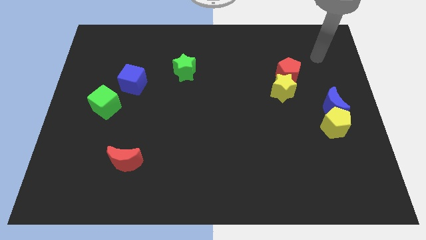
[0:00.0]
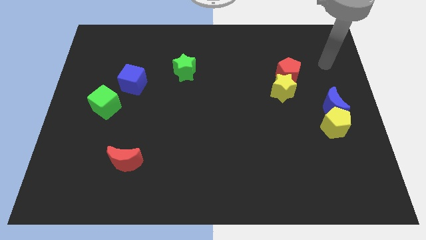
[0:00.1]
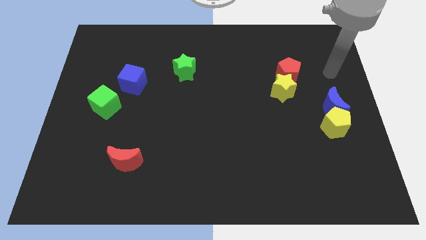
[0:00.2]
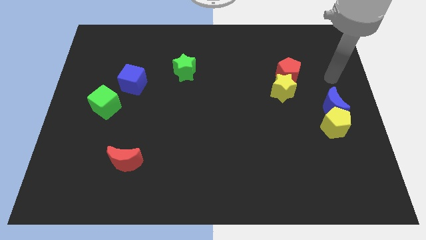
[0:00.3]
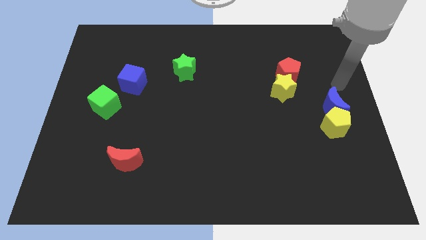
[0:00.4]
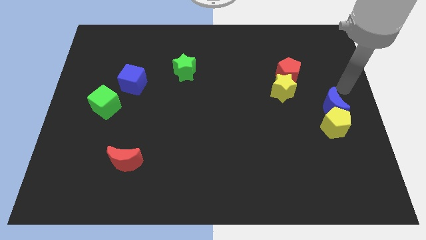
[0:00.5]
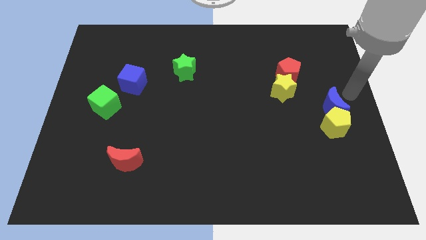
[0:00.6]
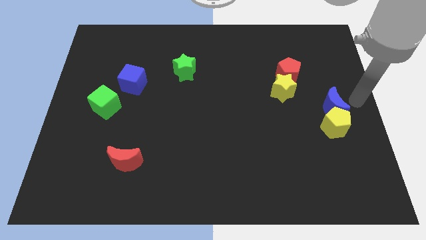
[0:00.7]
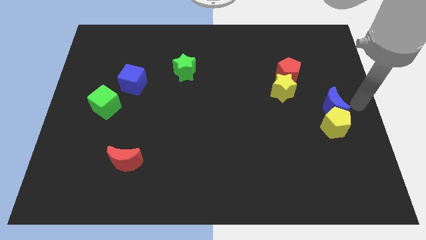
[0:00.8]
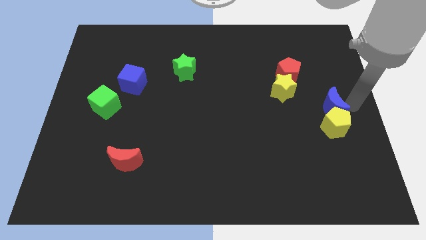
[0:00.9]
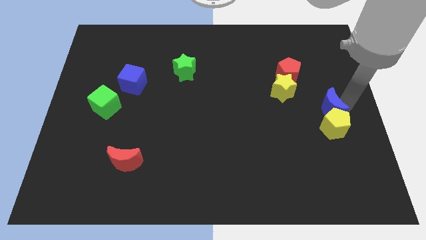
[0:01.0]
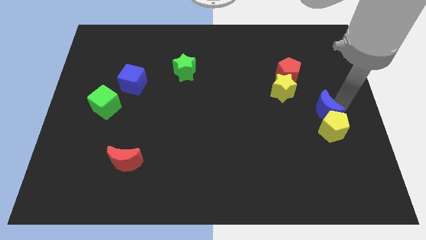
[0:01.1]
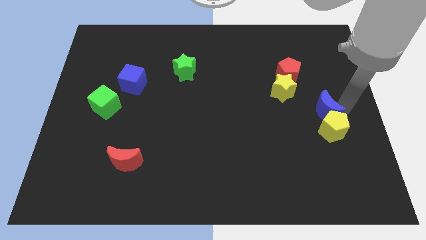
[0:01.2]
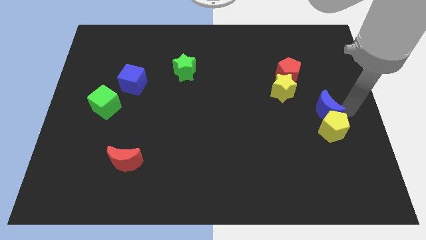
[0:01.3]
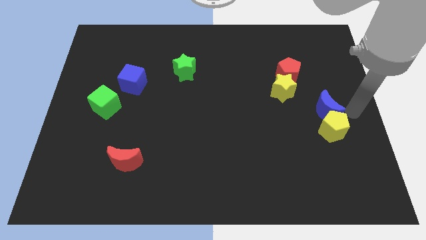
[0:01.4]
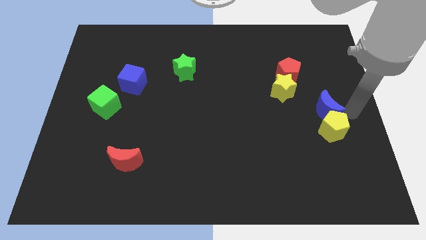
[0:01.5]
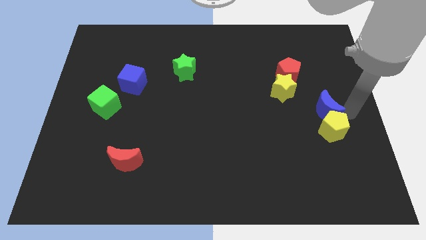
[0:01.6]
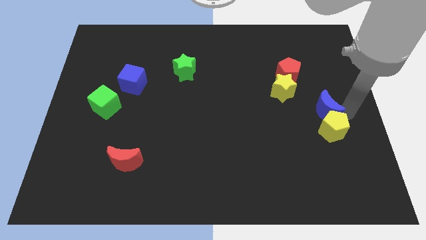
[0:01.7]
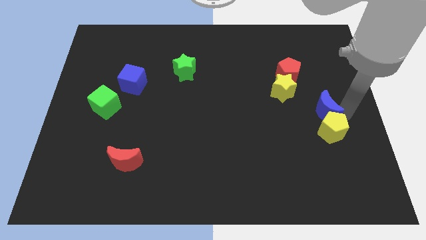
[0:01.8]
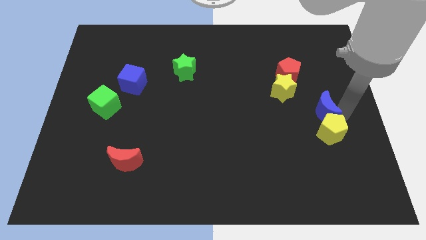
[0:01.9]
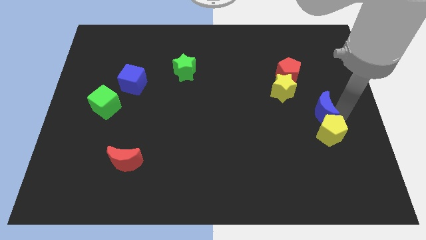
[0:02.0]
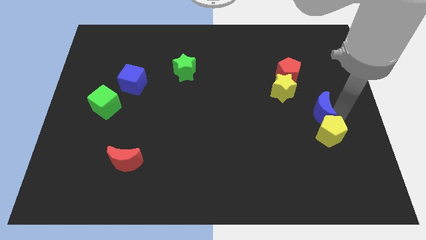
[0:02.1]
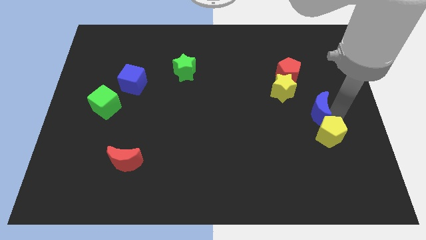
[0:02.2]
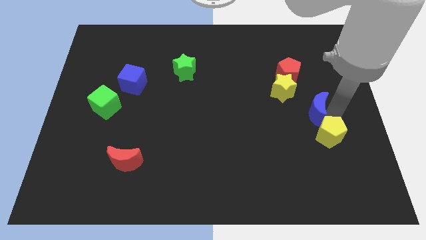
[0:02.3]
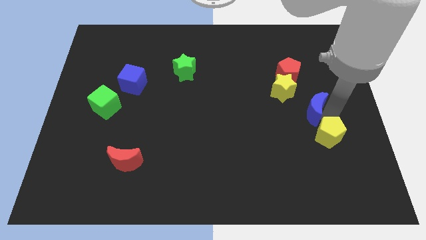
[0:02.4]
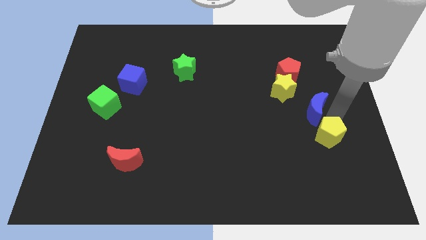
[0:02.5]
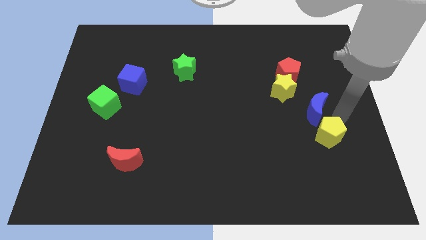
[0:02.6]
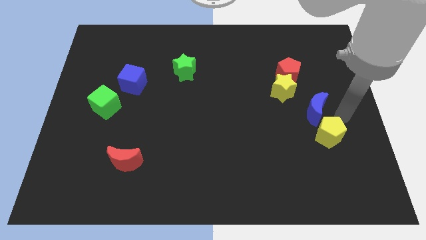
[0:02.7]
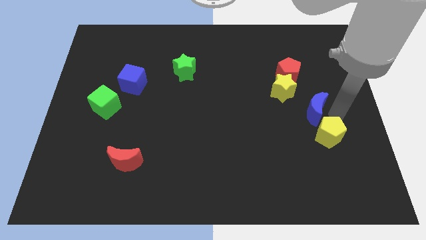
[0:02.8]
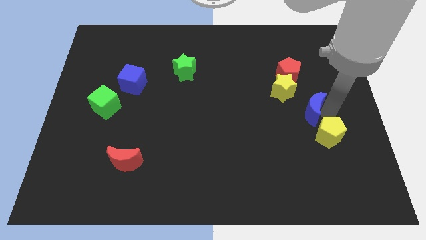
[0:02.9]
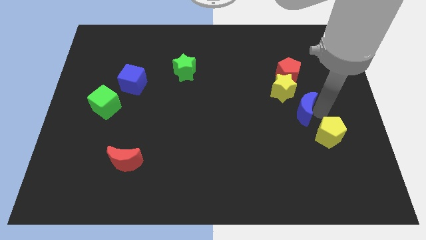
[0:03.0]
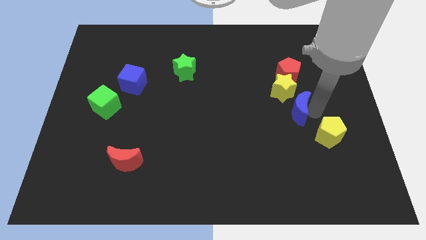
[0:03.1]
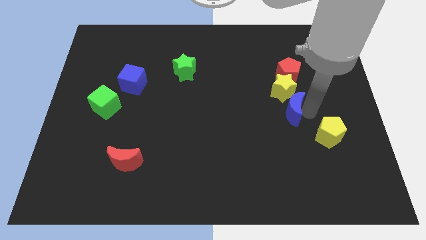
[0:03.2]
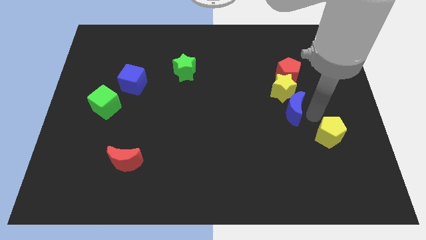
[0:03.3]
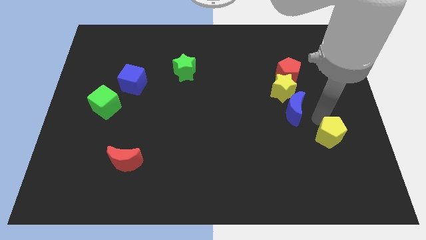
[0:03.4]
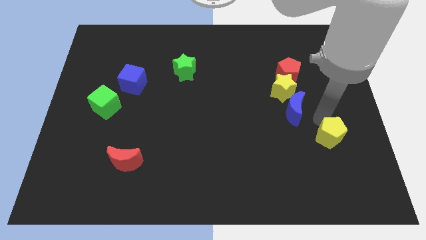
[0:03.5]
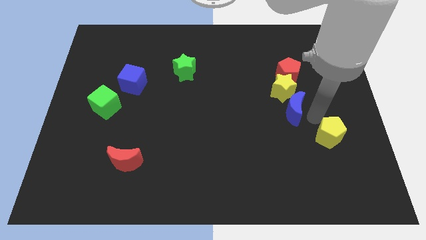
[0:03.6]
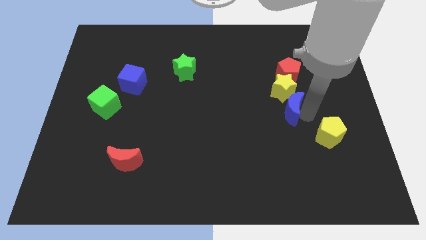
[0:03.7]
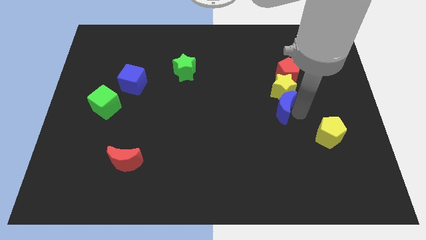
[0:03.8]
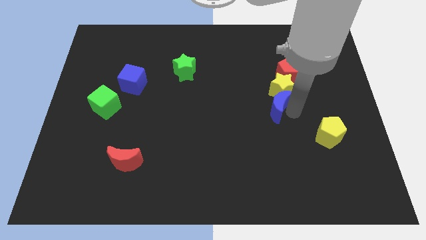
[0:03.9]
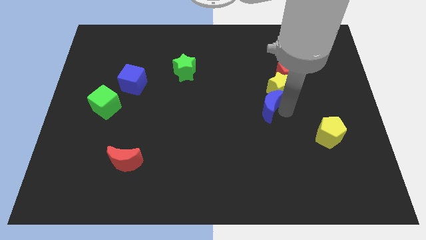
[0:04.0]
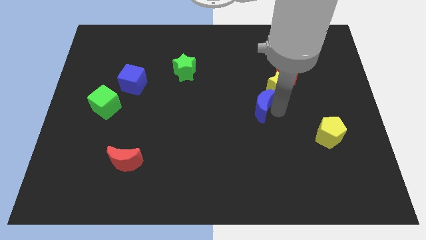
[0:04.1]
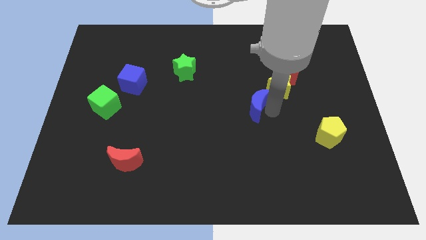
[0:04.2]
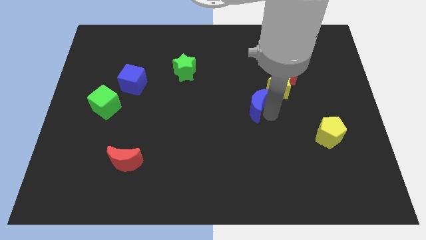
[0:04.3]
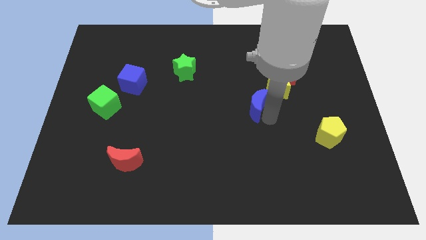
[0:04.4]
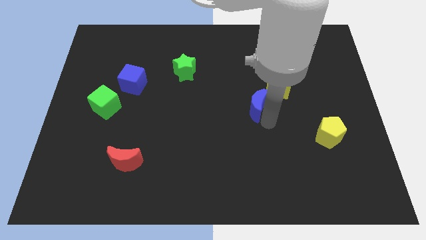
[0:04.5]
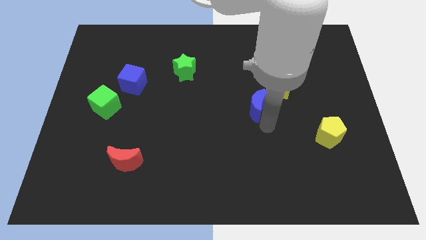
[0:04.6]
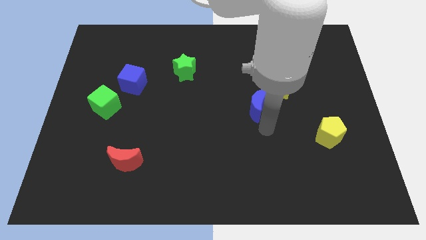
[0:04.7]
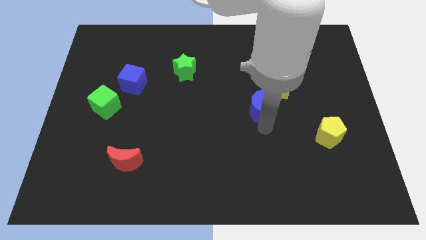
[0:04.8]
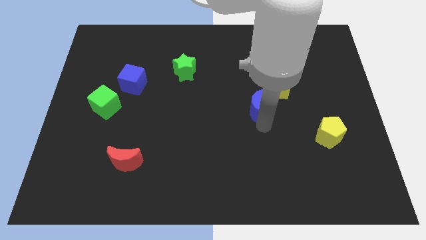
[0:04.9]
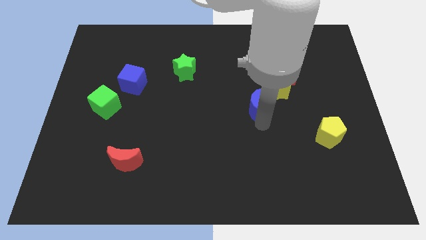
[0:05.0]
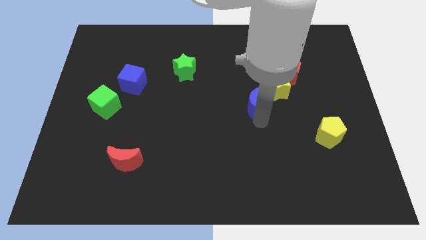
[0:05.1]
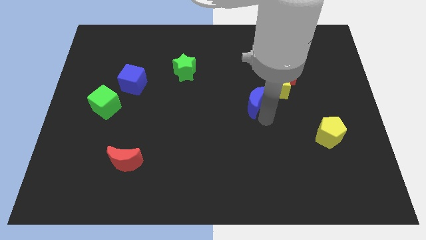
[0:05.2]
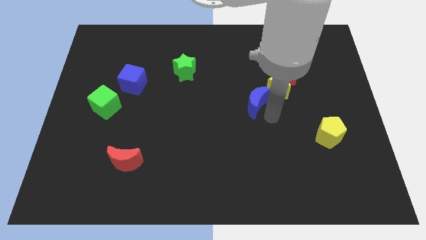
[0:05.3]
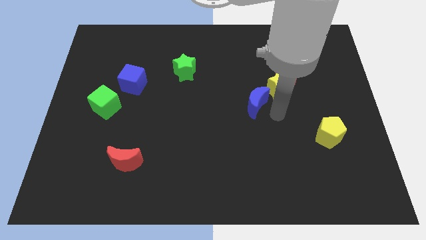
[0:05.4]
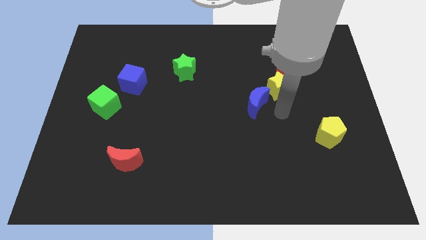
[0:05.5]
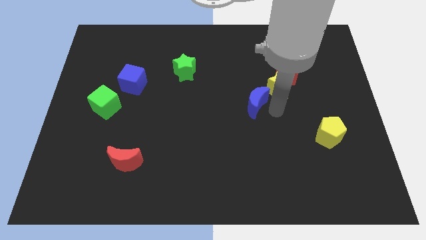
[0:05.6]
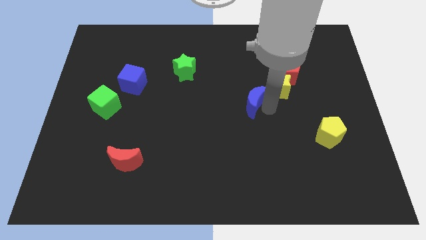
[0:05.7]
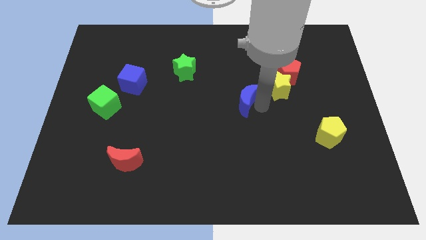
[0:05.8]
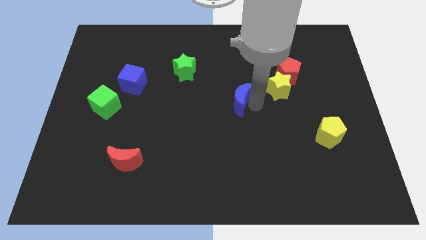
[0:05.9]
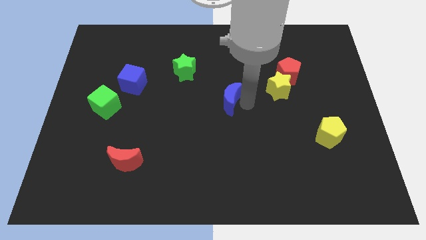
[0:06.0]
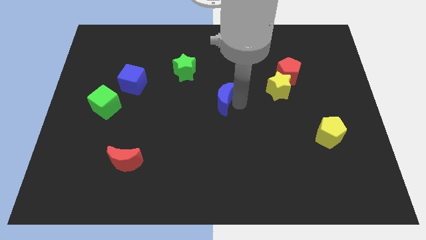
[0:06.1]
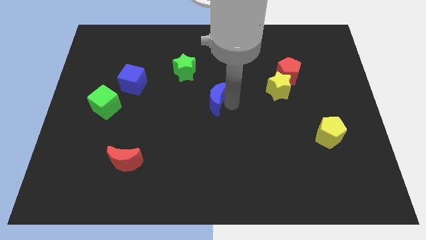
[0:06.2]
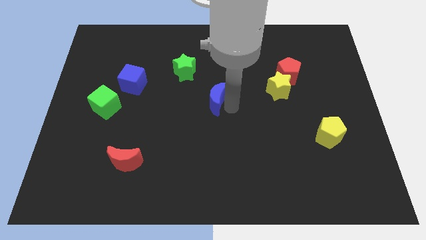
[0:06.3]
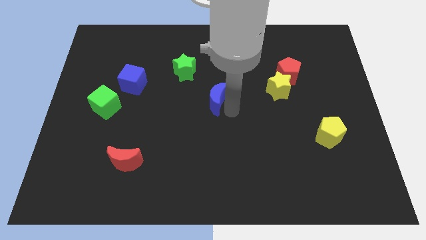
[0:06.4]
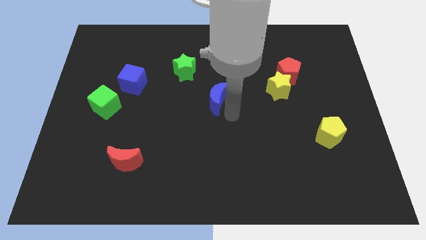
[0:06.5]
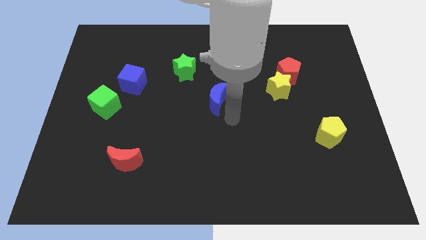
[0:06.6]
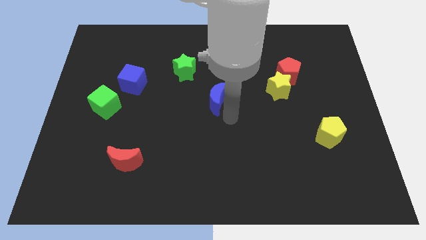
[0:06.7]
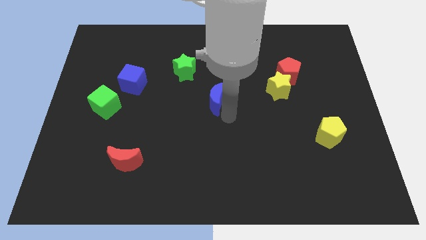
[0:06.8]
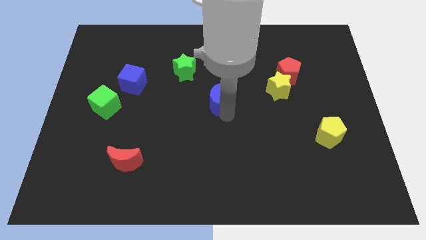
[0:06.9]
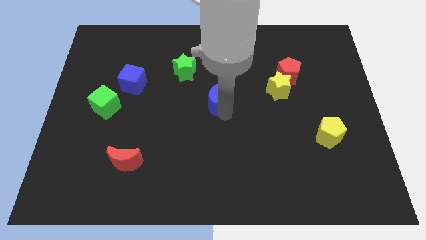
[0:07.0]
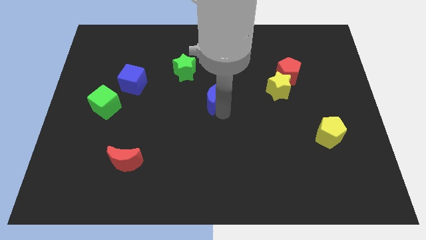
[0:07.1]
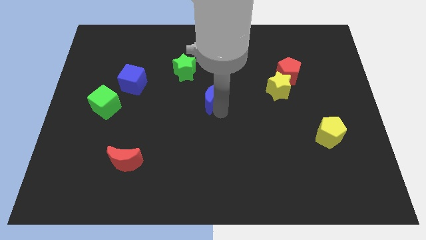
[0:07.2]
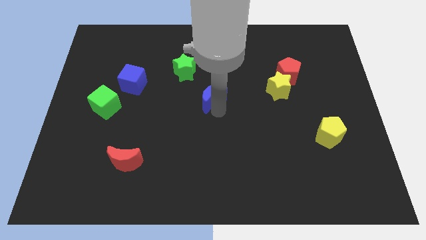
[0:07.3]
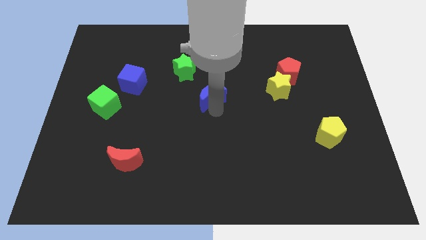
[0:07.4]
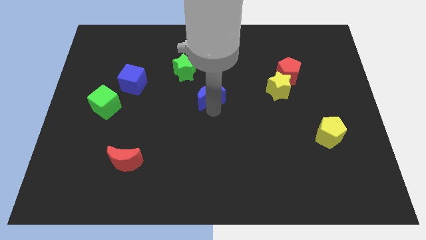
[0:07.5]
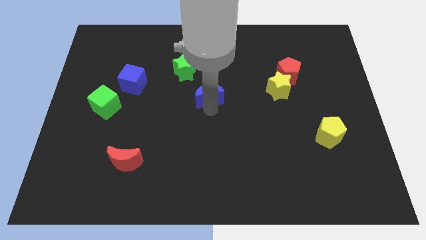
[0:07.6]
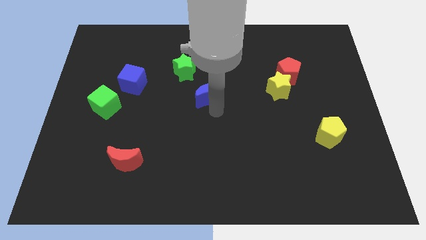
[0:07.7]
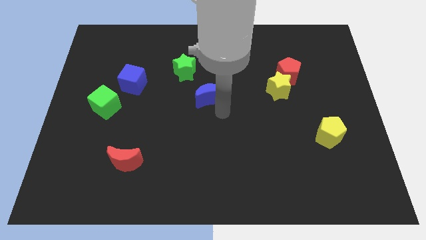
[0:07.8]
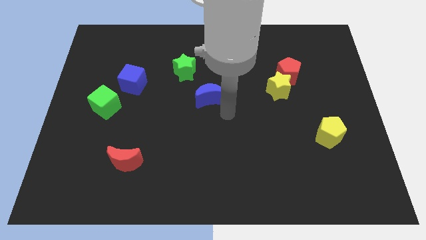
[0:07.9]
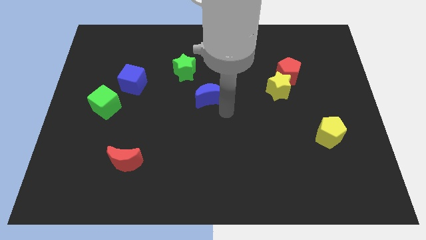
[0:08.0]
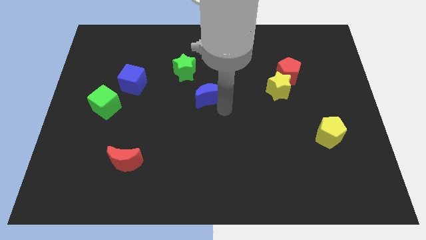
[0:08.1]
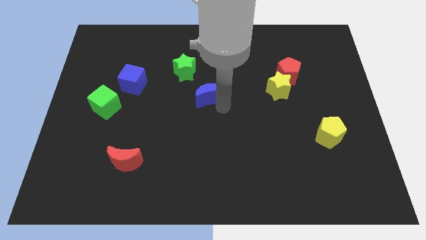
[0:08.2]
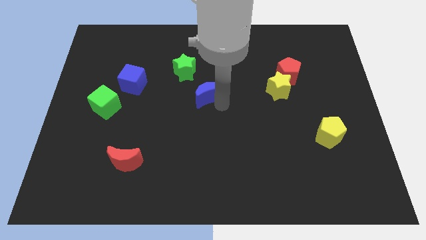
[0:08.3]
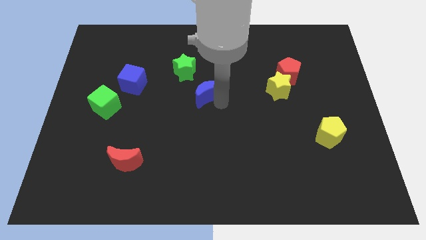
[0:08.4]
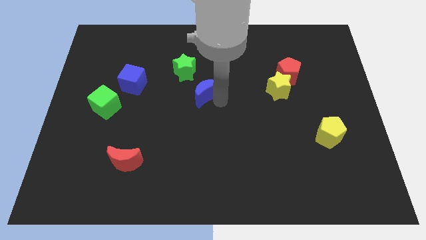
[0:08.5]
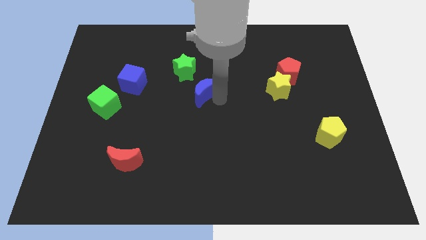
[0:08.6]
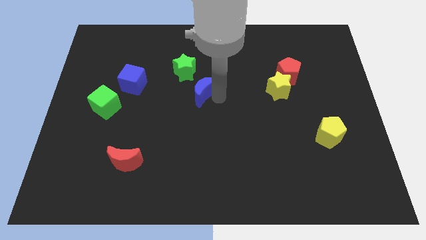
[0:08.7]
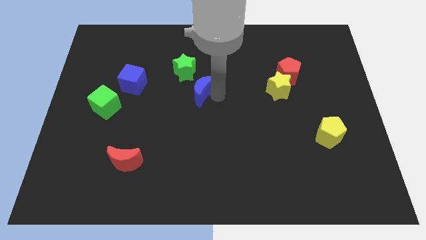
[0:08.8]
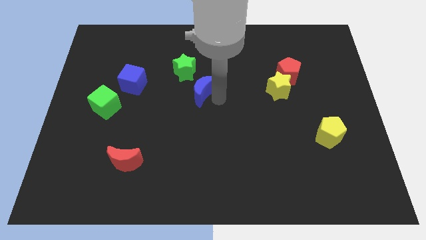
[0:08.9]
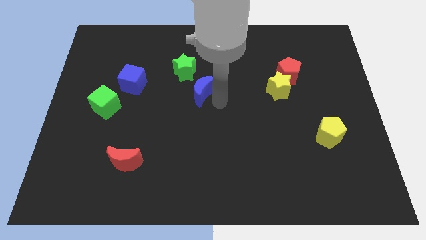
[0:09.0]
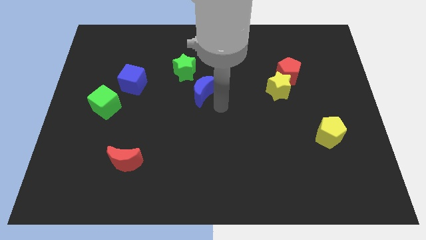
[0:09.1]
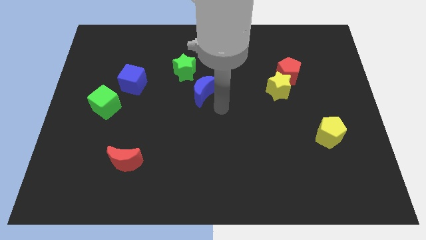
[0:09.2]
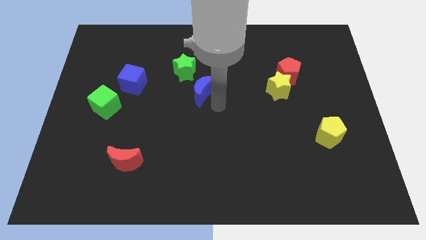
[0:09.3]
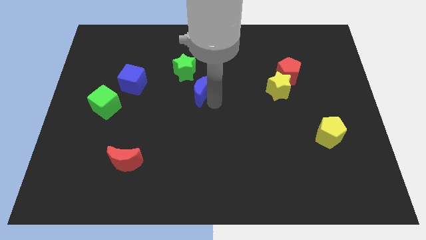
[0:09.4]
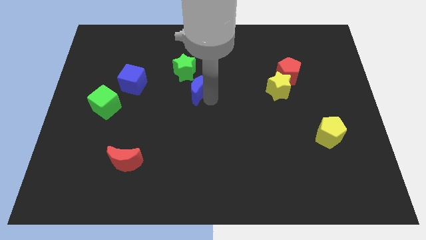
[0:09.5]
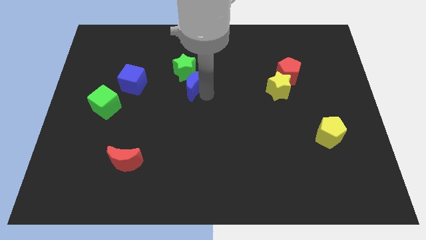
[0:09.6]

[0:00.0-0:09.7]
push the blue moon right of the blue cube
